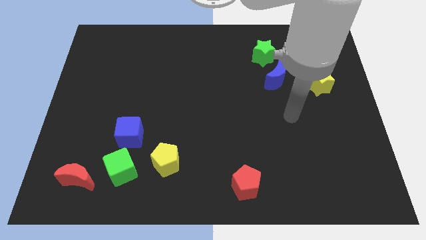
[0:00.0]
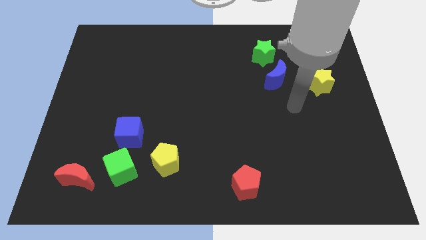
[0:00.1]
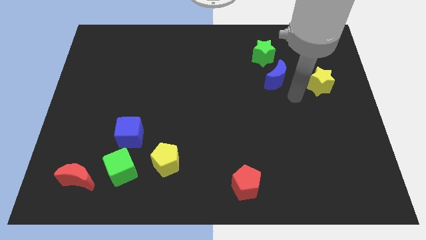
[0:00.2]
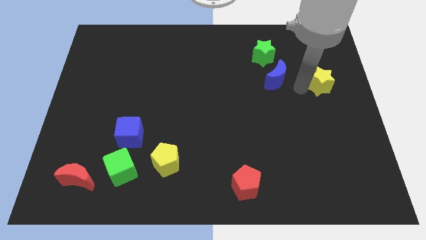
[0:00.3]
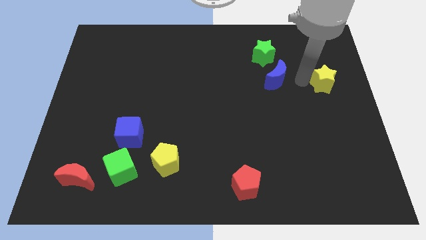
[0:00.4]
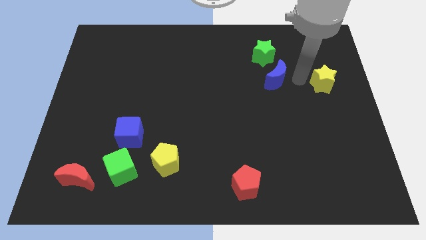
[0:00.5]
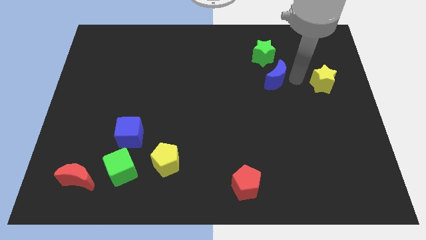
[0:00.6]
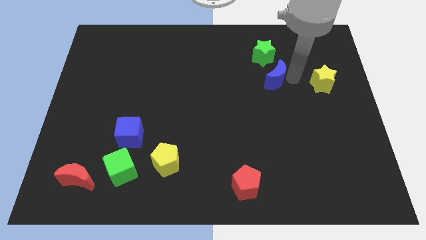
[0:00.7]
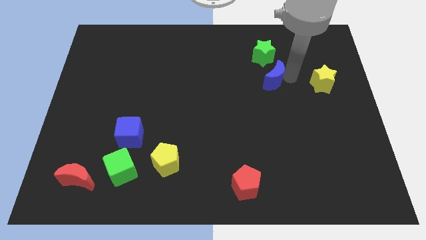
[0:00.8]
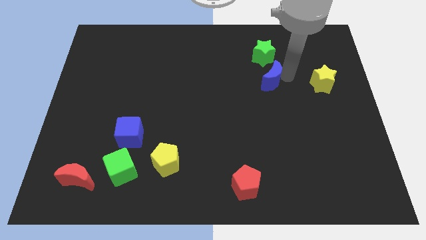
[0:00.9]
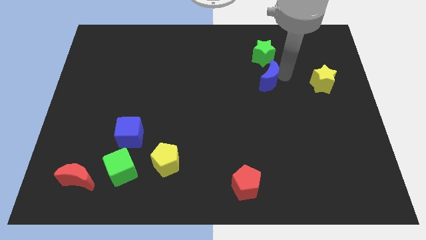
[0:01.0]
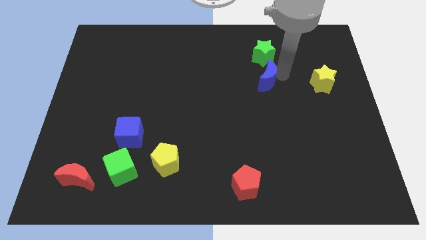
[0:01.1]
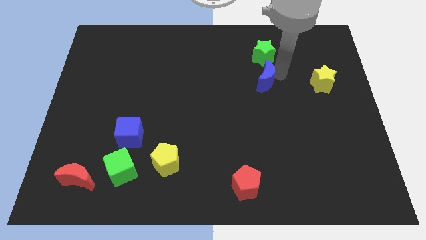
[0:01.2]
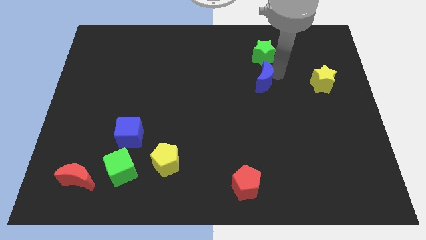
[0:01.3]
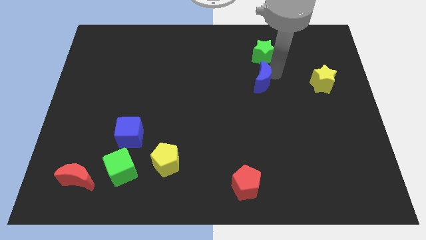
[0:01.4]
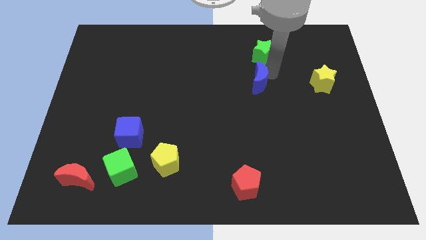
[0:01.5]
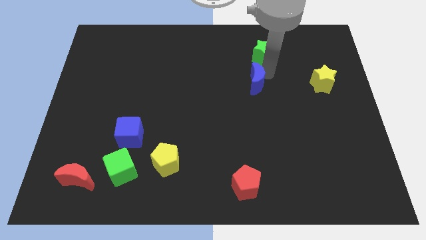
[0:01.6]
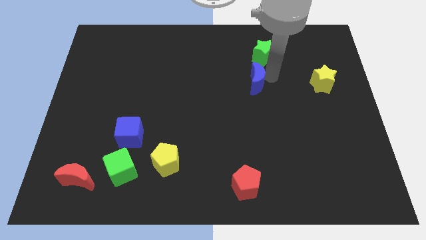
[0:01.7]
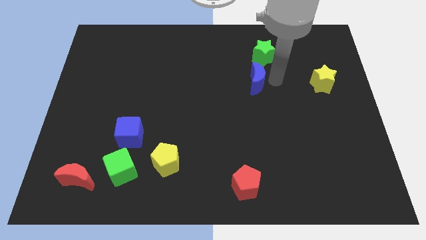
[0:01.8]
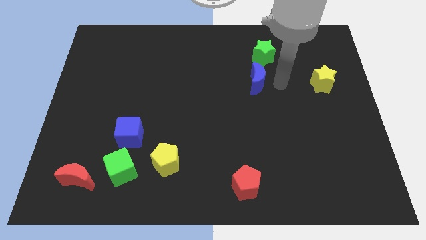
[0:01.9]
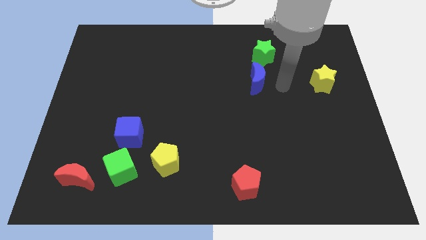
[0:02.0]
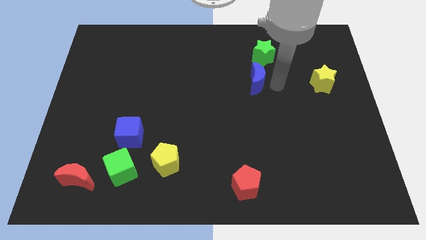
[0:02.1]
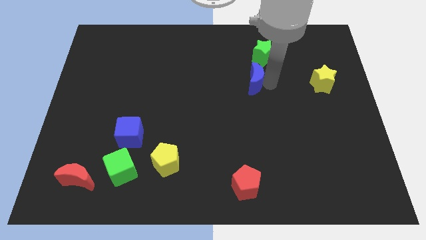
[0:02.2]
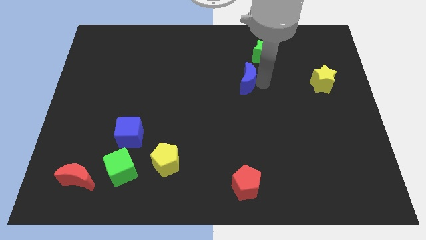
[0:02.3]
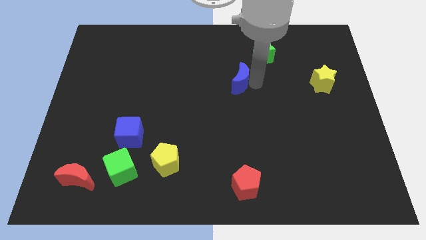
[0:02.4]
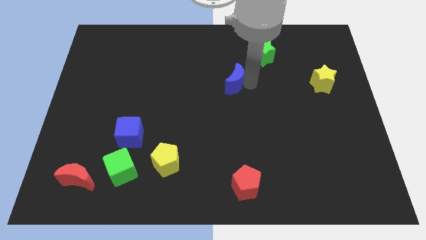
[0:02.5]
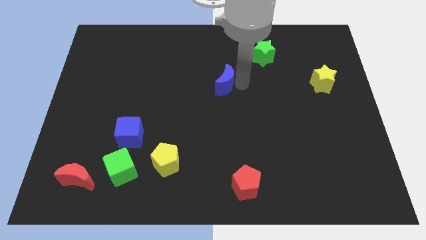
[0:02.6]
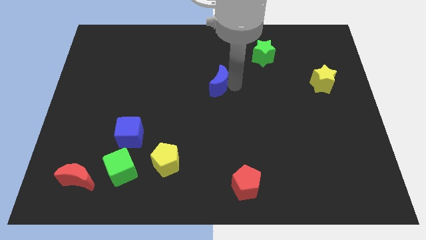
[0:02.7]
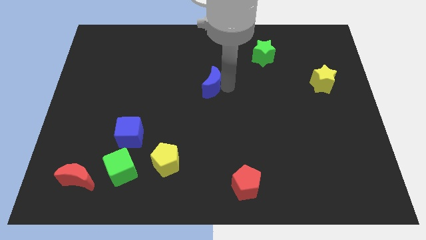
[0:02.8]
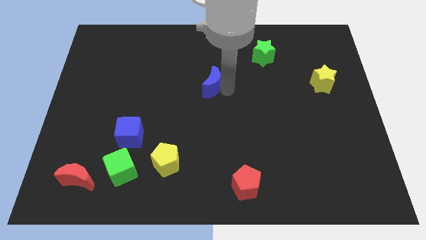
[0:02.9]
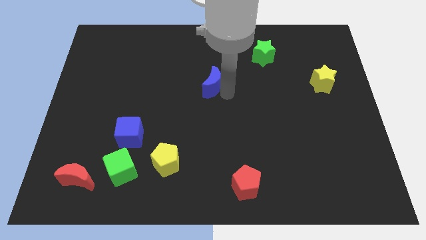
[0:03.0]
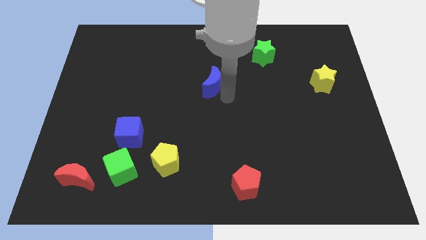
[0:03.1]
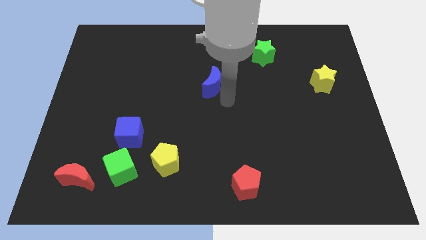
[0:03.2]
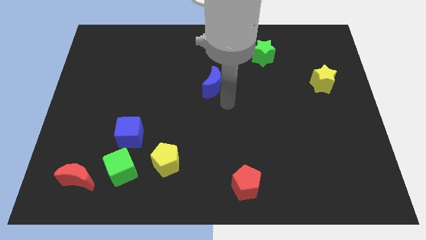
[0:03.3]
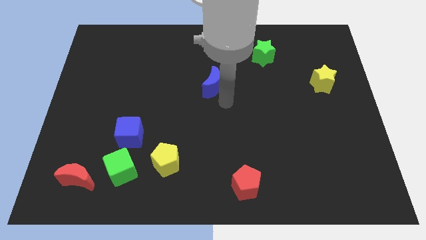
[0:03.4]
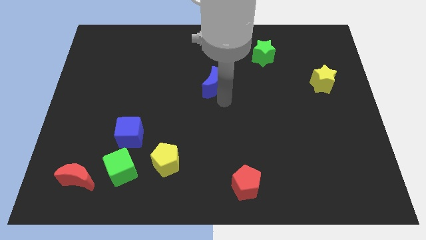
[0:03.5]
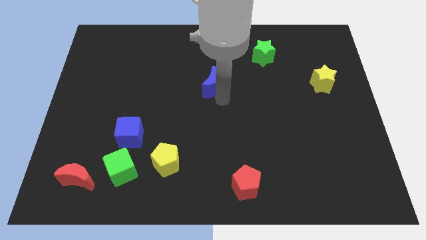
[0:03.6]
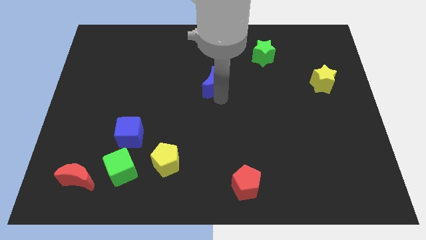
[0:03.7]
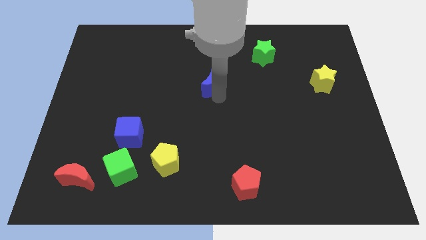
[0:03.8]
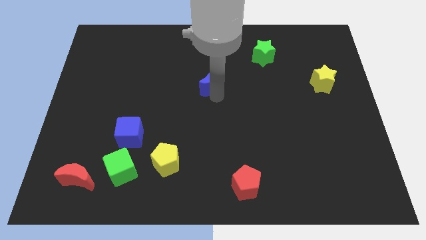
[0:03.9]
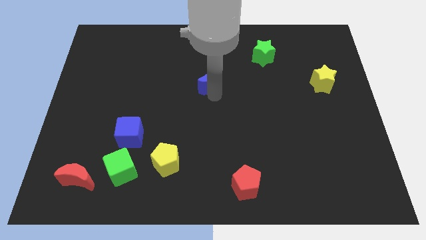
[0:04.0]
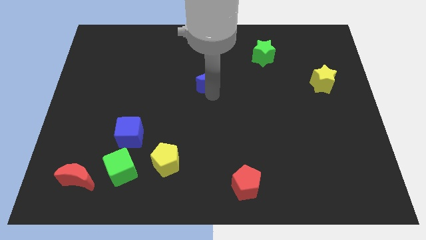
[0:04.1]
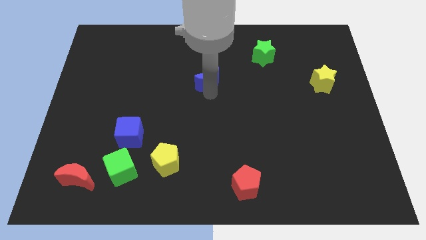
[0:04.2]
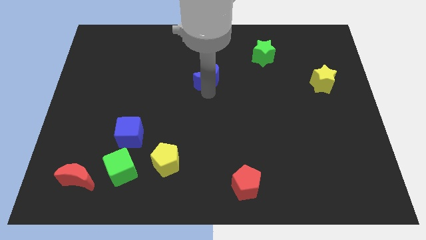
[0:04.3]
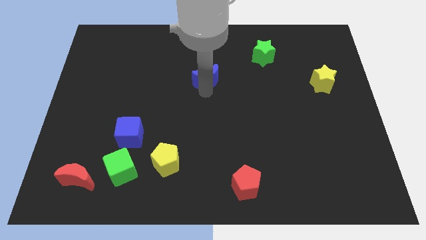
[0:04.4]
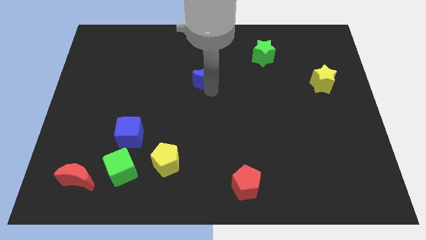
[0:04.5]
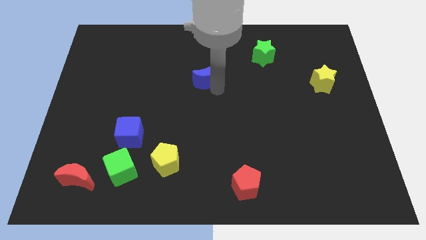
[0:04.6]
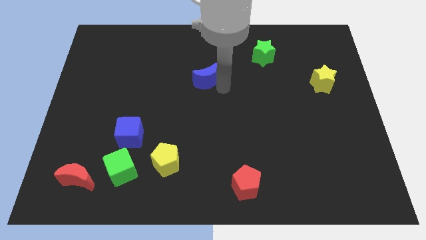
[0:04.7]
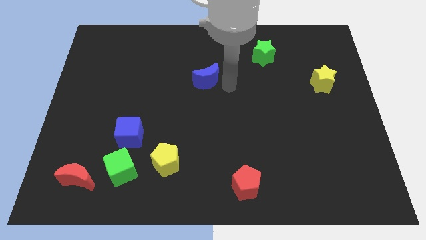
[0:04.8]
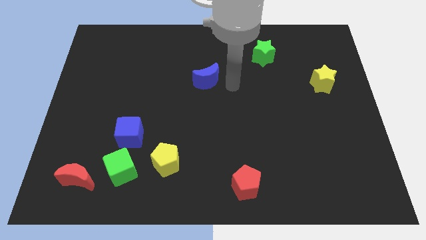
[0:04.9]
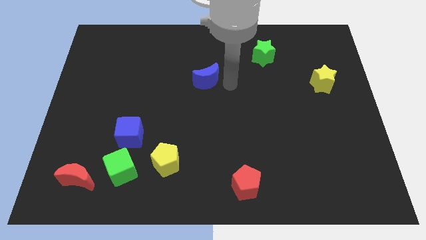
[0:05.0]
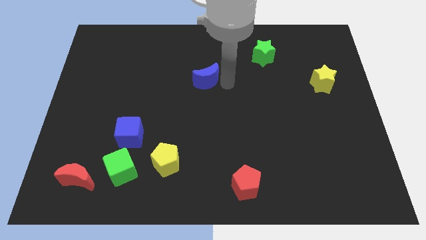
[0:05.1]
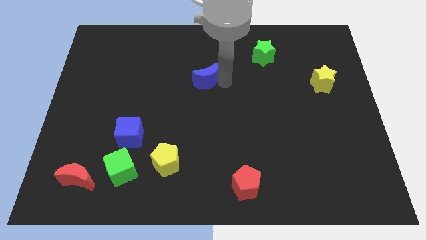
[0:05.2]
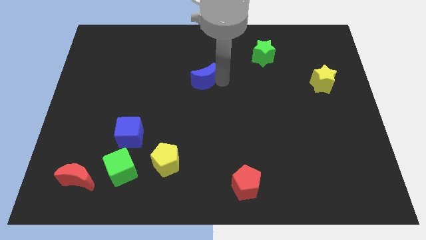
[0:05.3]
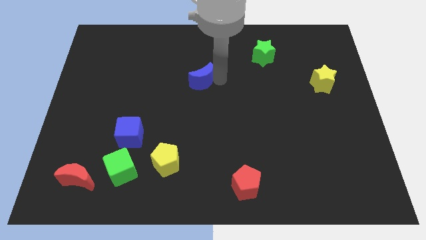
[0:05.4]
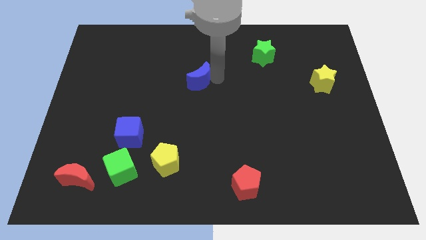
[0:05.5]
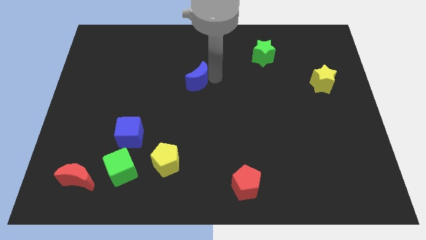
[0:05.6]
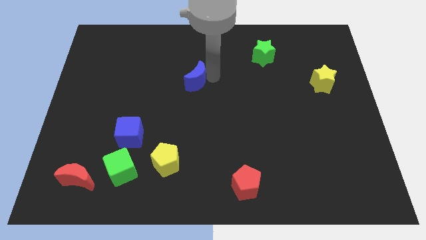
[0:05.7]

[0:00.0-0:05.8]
move the blue moon to the left

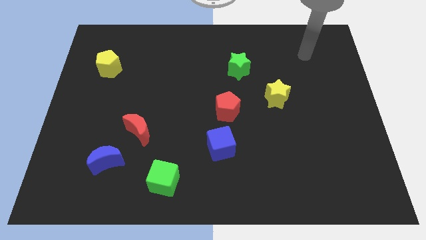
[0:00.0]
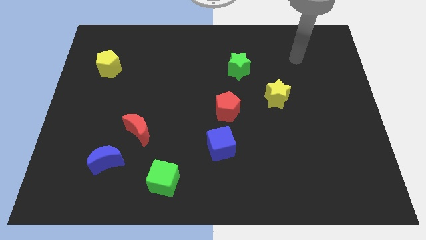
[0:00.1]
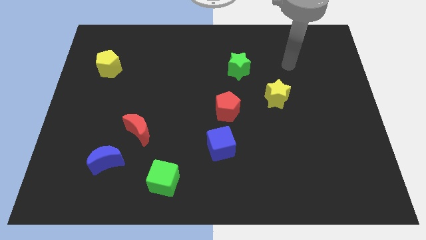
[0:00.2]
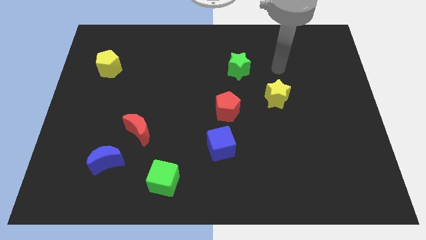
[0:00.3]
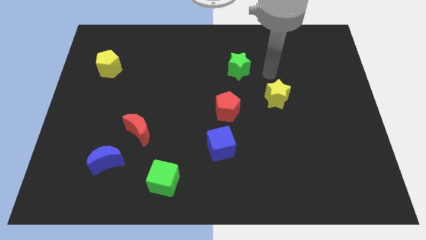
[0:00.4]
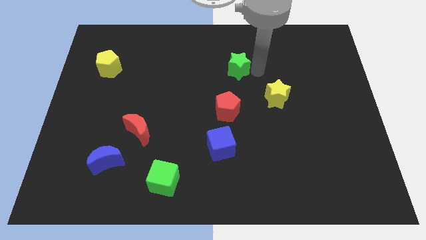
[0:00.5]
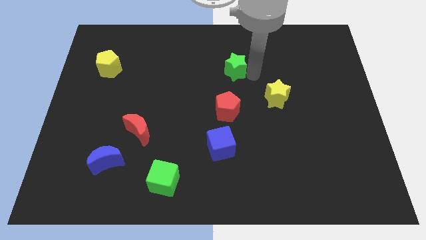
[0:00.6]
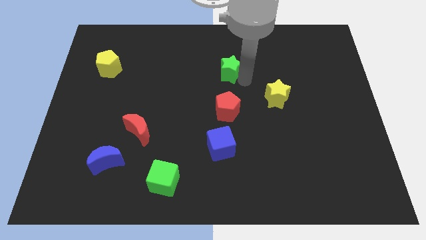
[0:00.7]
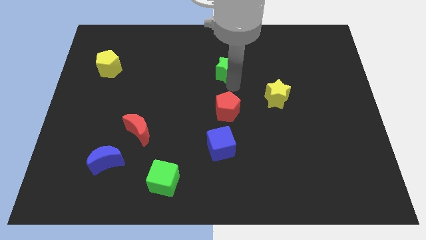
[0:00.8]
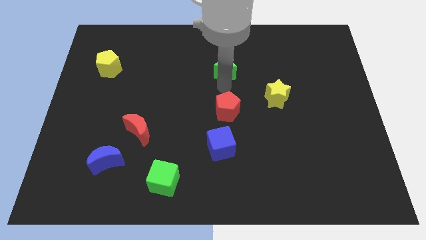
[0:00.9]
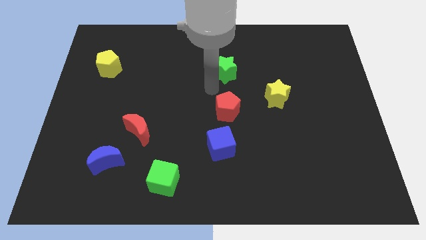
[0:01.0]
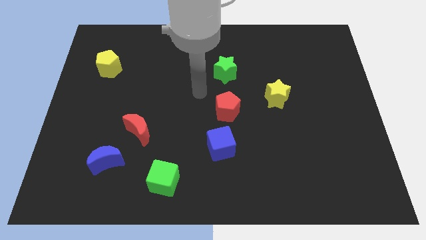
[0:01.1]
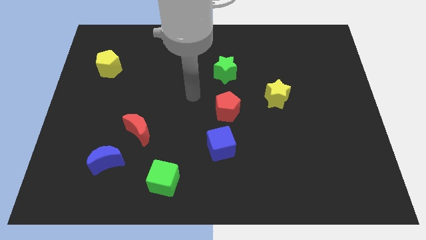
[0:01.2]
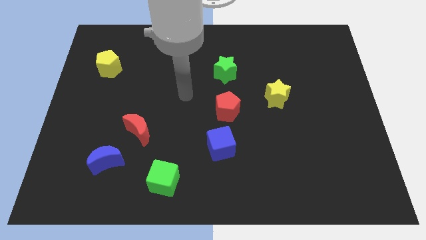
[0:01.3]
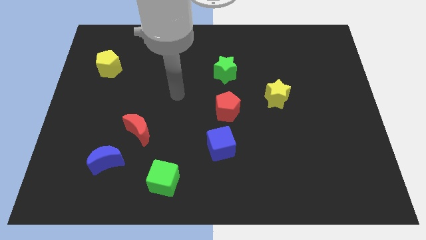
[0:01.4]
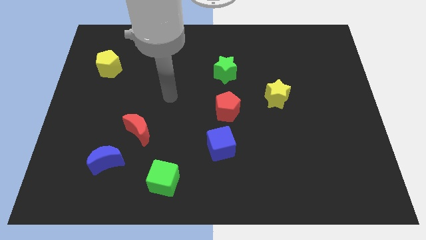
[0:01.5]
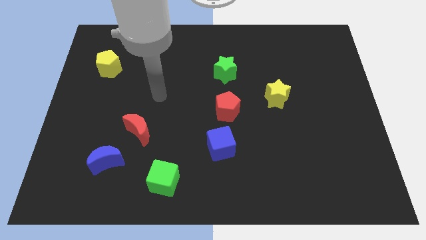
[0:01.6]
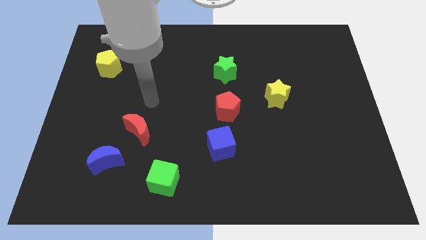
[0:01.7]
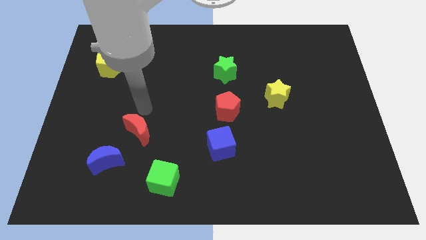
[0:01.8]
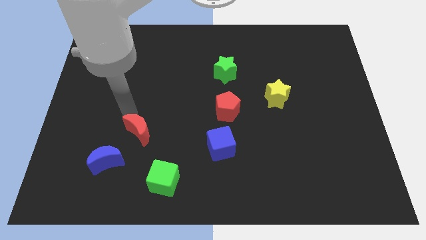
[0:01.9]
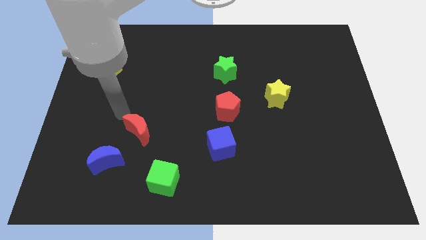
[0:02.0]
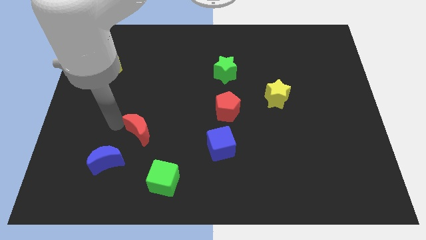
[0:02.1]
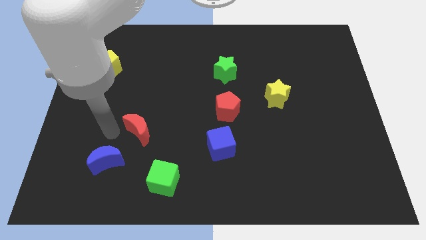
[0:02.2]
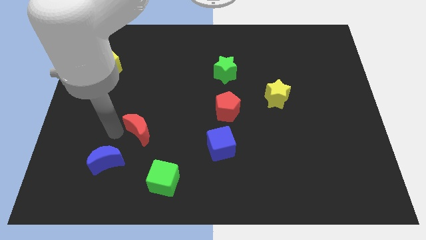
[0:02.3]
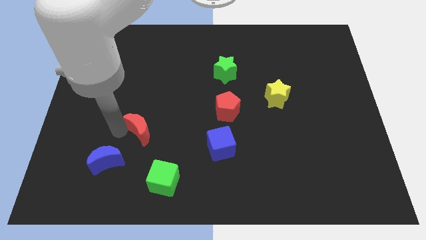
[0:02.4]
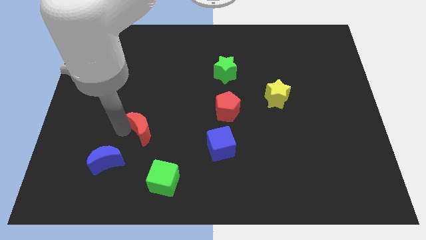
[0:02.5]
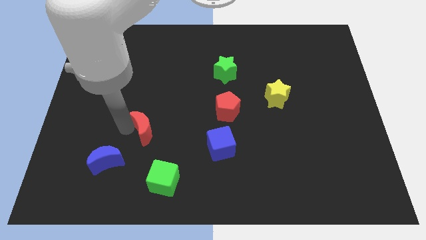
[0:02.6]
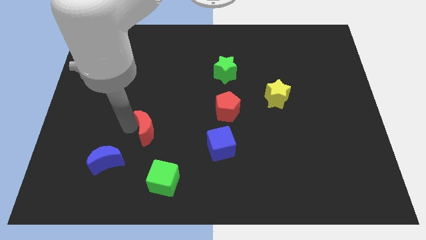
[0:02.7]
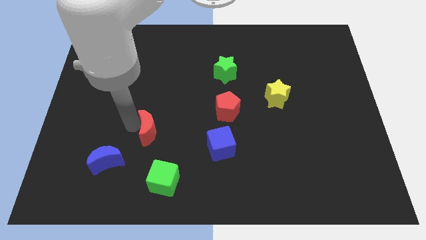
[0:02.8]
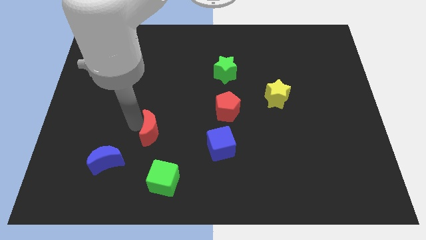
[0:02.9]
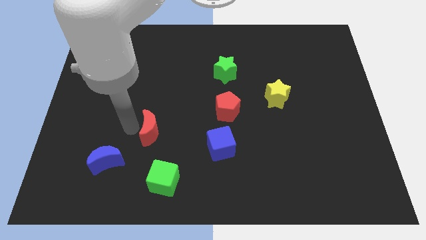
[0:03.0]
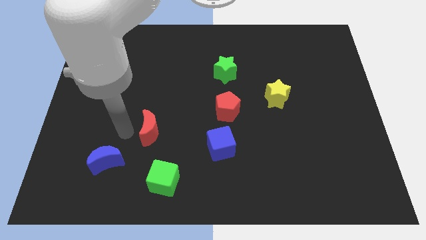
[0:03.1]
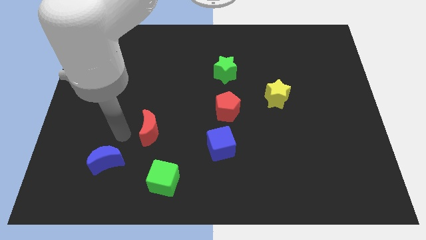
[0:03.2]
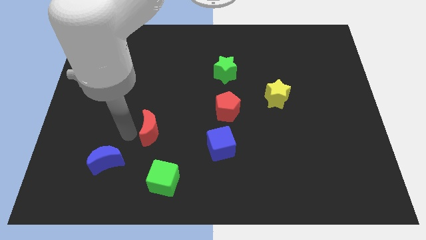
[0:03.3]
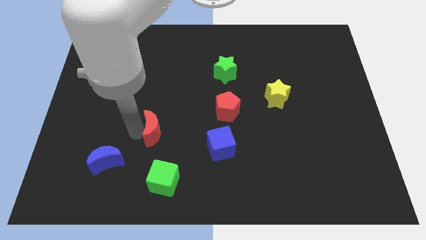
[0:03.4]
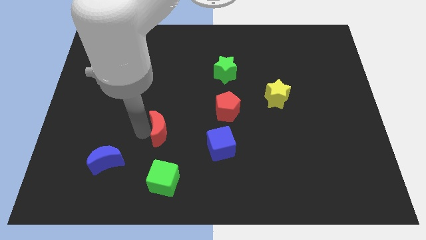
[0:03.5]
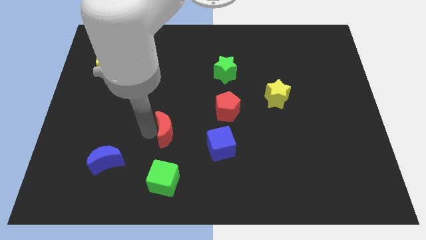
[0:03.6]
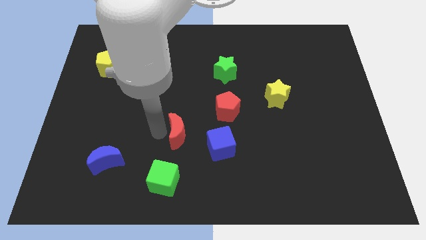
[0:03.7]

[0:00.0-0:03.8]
push the red moon a little right
